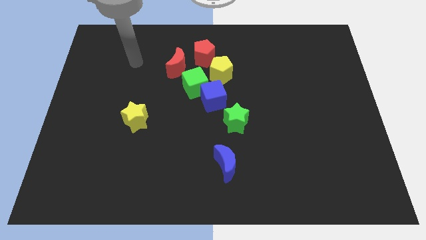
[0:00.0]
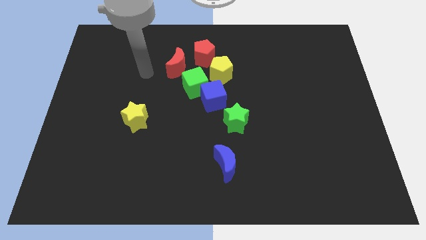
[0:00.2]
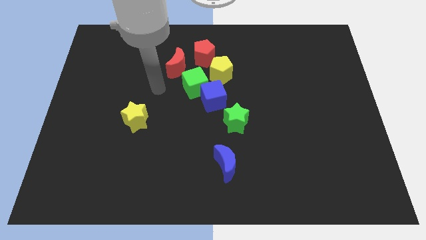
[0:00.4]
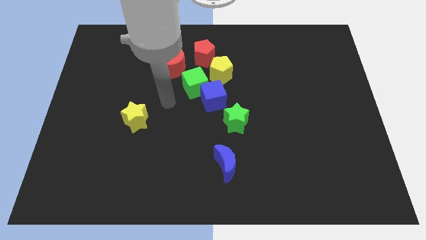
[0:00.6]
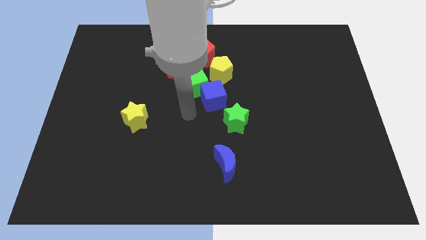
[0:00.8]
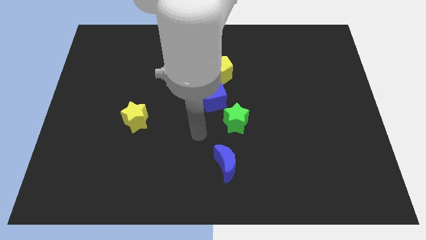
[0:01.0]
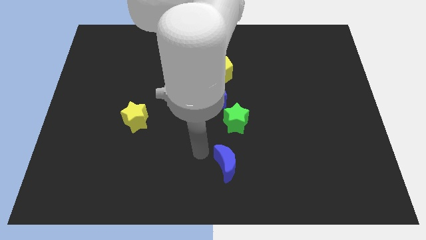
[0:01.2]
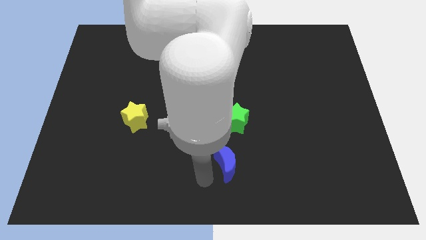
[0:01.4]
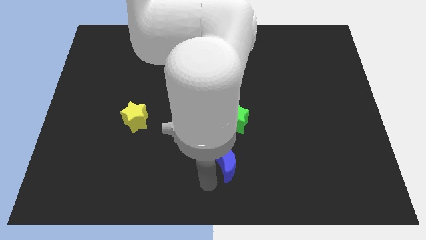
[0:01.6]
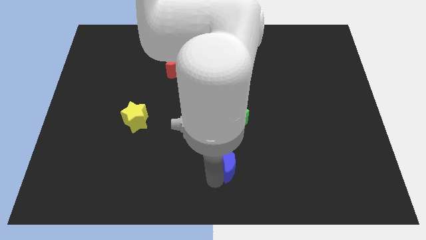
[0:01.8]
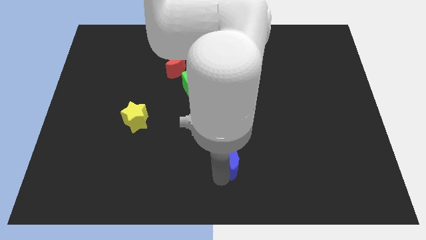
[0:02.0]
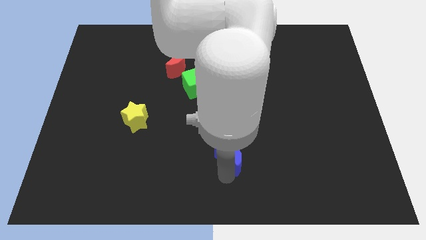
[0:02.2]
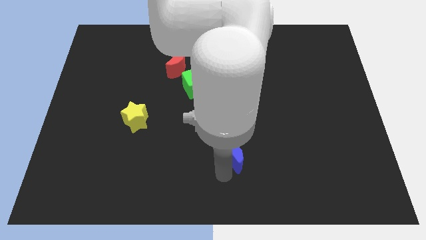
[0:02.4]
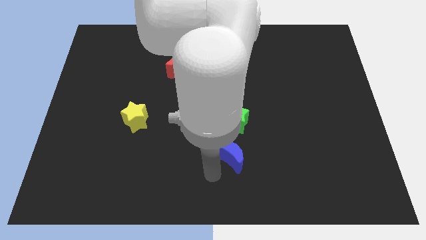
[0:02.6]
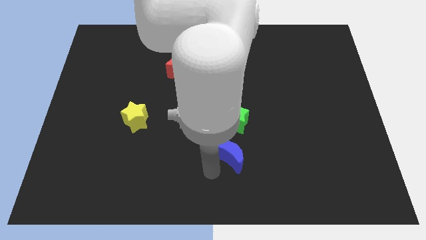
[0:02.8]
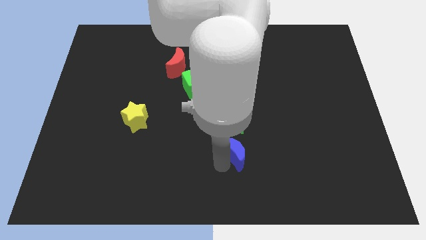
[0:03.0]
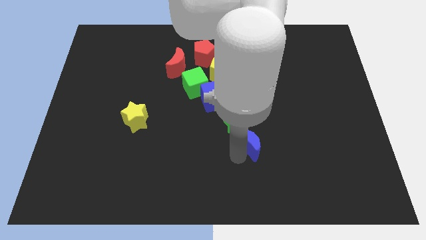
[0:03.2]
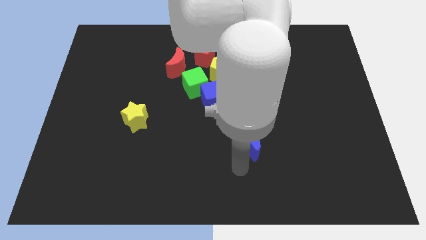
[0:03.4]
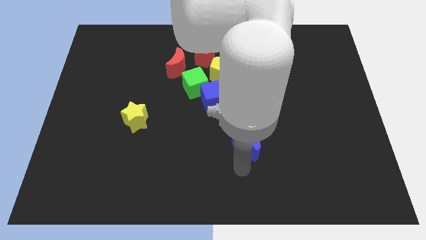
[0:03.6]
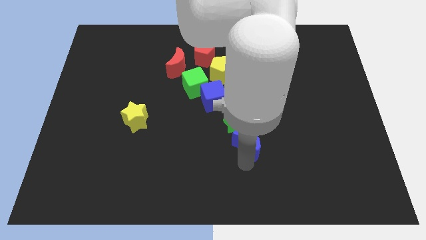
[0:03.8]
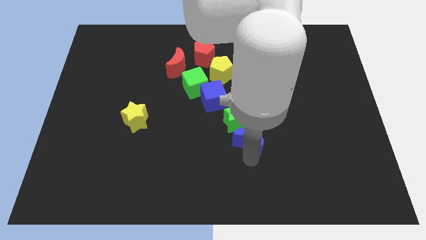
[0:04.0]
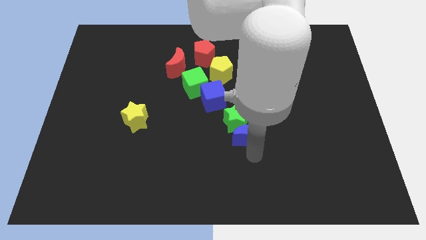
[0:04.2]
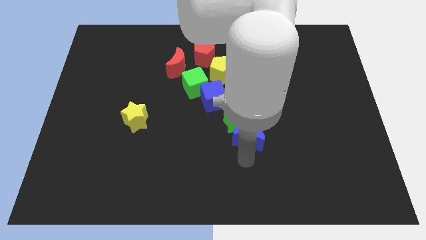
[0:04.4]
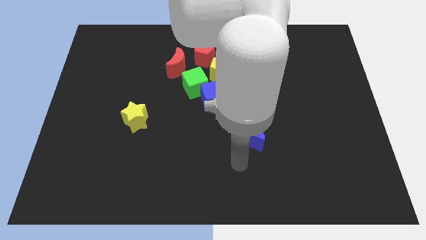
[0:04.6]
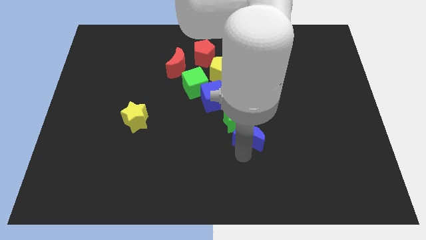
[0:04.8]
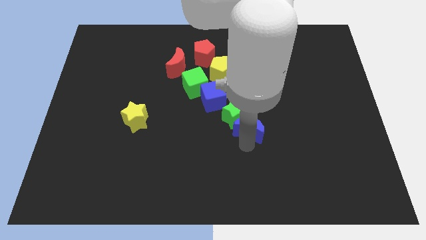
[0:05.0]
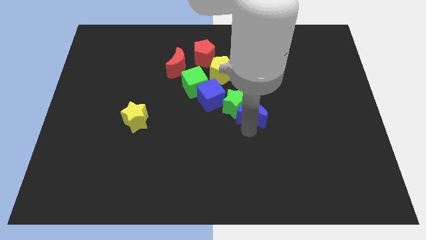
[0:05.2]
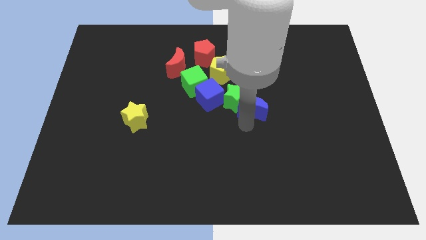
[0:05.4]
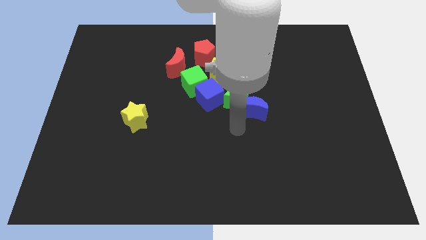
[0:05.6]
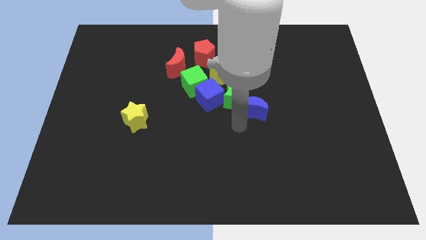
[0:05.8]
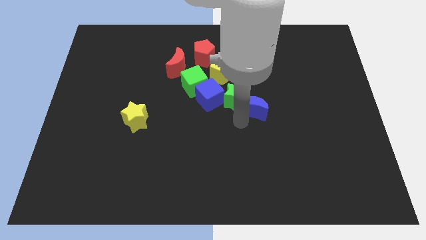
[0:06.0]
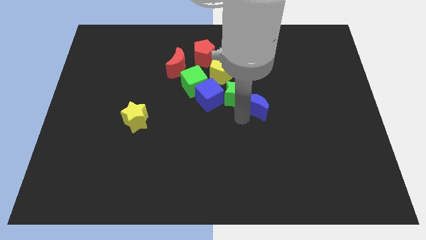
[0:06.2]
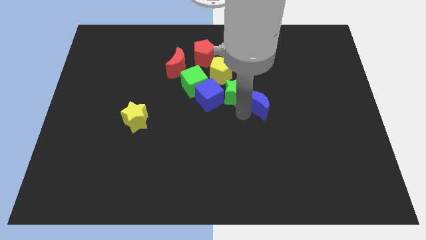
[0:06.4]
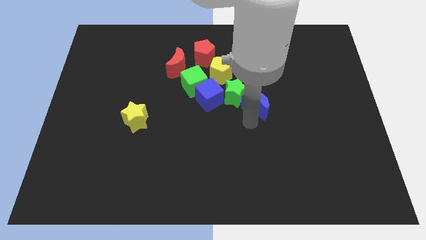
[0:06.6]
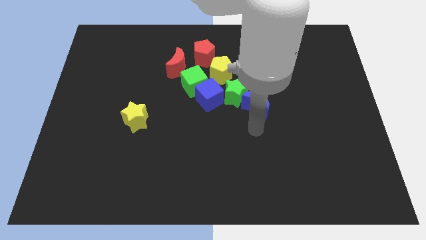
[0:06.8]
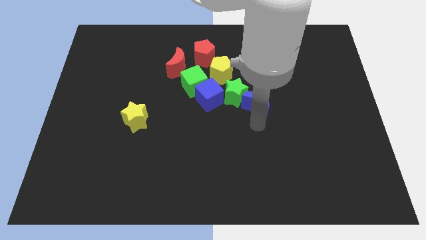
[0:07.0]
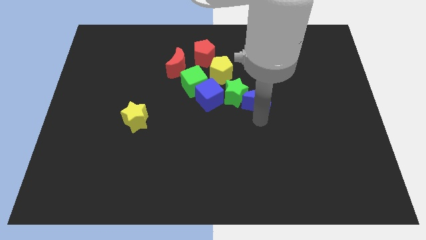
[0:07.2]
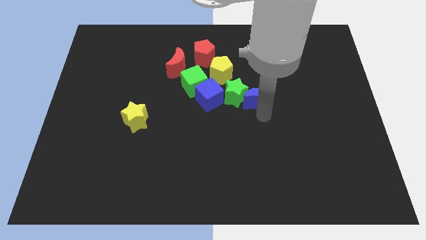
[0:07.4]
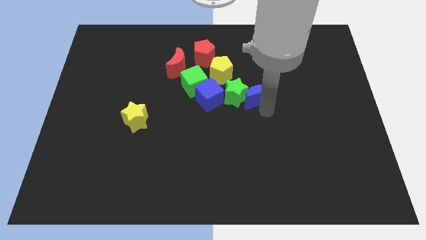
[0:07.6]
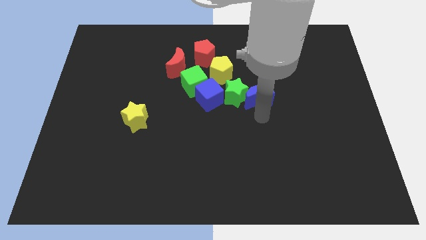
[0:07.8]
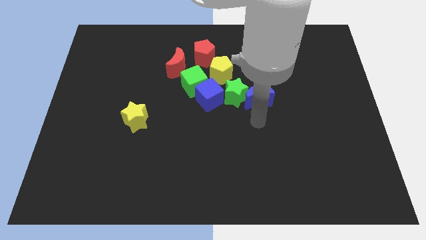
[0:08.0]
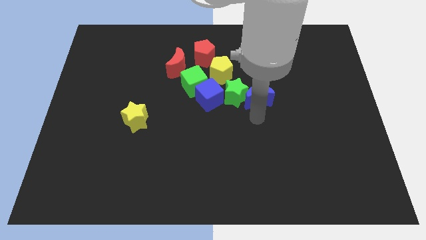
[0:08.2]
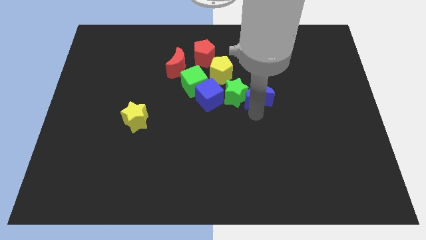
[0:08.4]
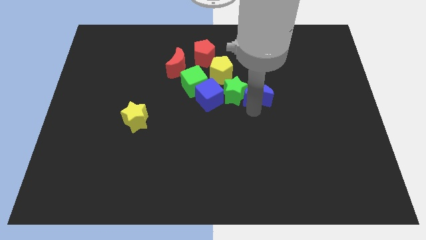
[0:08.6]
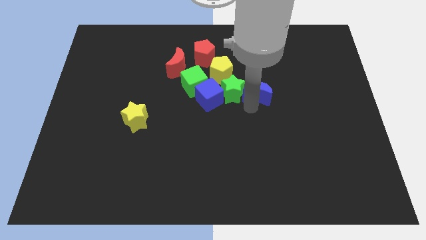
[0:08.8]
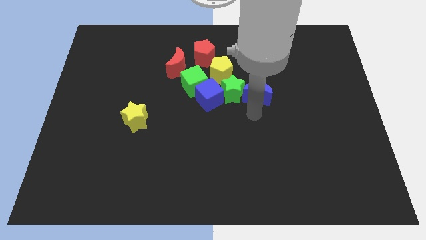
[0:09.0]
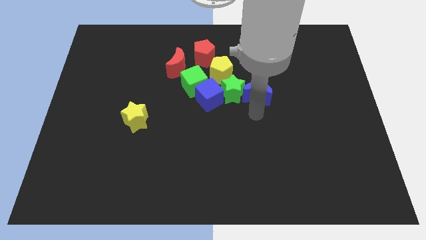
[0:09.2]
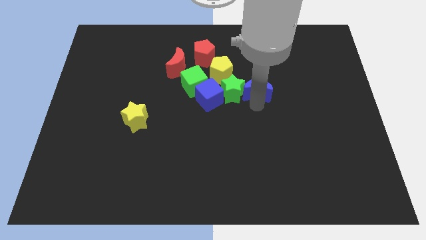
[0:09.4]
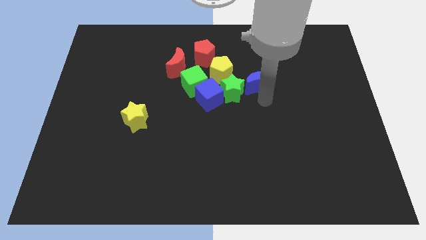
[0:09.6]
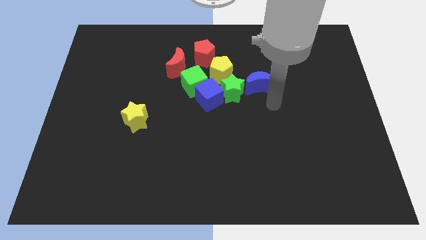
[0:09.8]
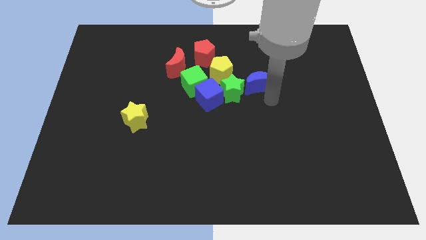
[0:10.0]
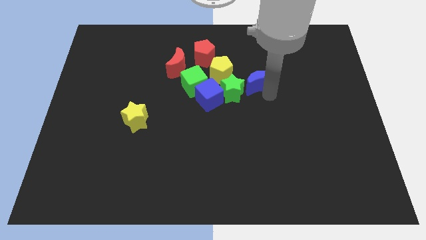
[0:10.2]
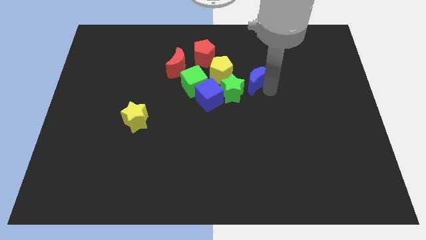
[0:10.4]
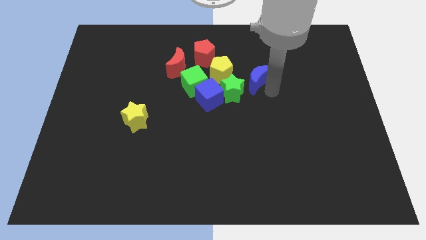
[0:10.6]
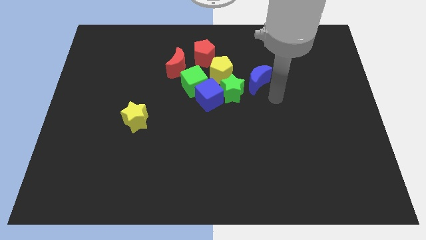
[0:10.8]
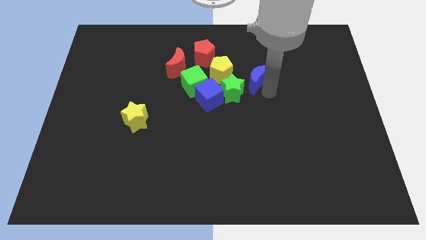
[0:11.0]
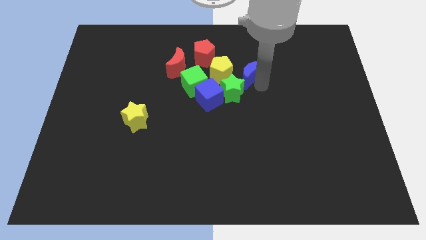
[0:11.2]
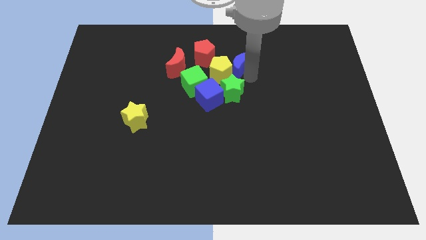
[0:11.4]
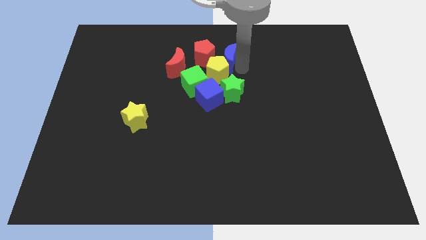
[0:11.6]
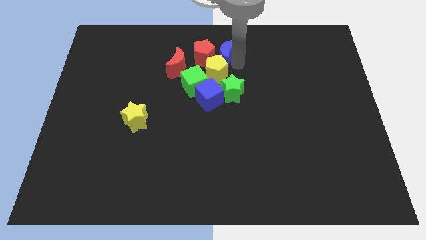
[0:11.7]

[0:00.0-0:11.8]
put the blue moon towards the red pentagon

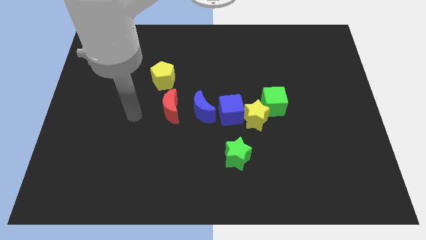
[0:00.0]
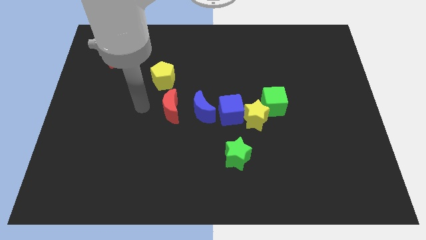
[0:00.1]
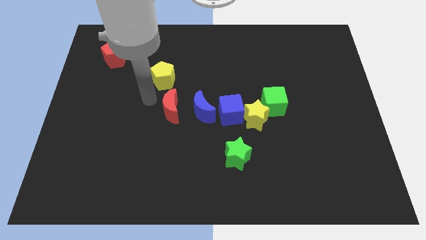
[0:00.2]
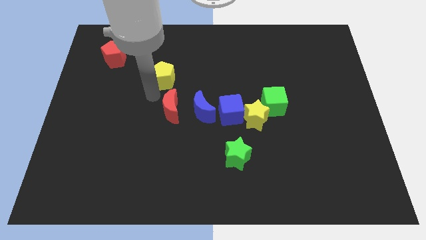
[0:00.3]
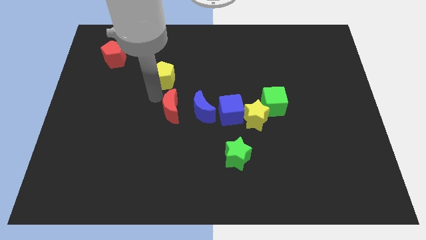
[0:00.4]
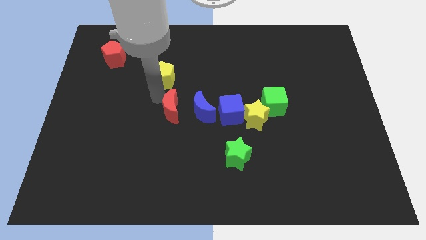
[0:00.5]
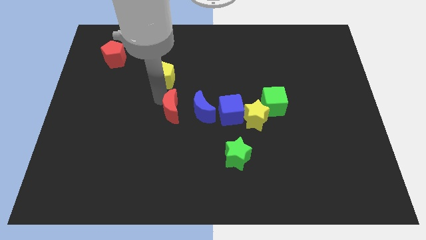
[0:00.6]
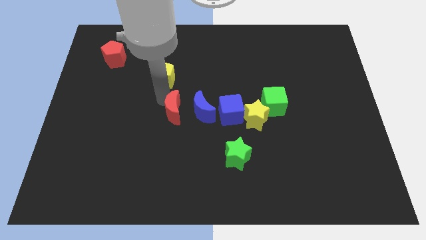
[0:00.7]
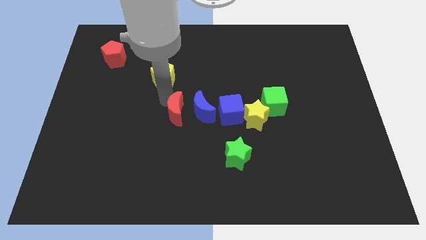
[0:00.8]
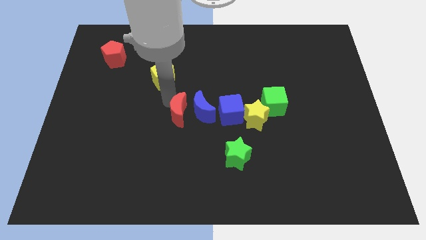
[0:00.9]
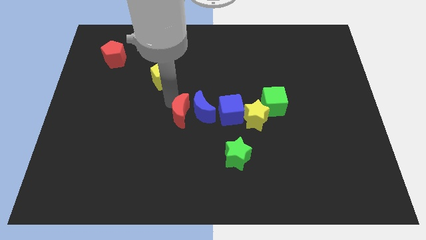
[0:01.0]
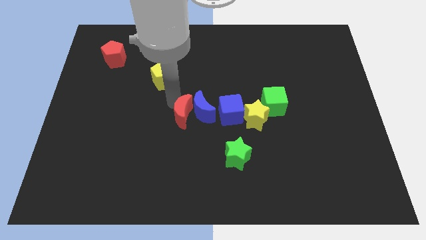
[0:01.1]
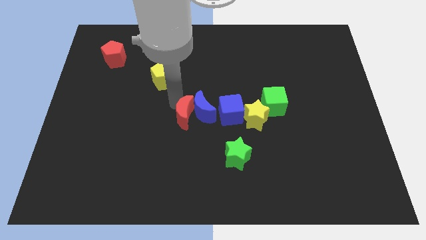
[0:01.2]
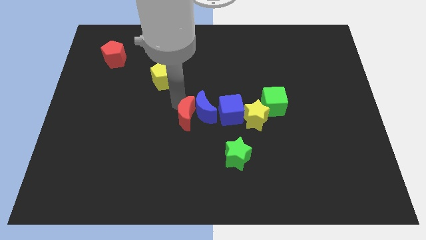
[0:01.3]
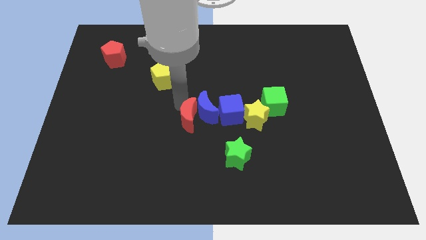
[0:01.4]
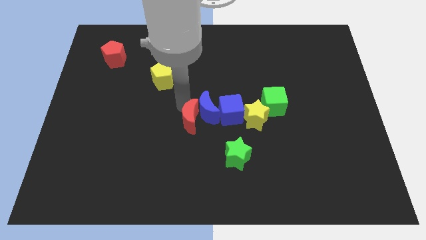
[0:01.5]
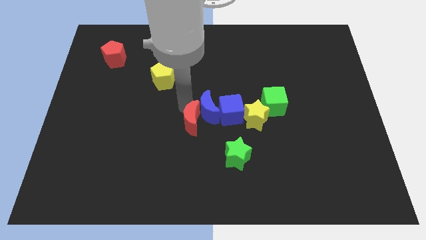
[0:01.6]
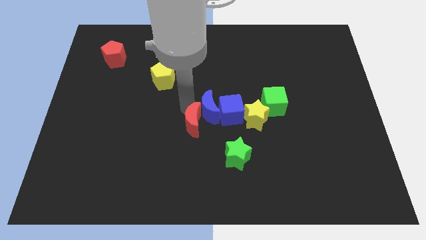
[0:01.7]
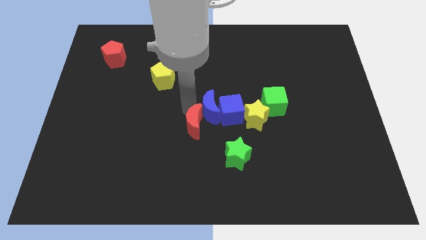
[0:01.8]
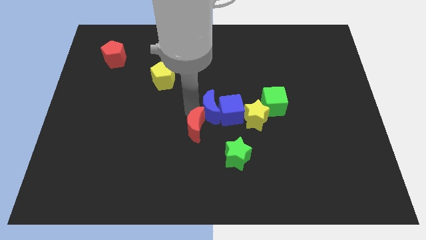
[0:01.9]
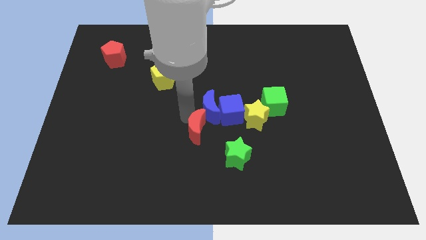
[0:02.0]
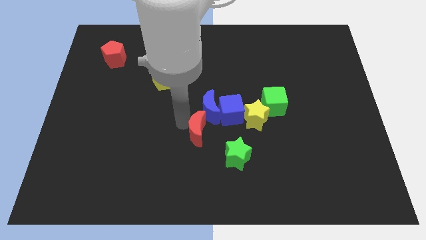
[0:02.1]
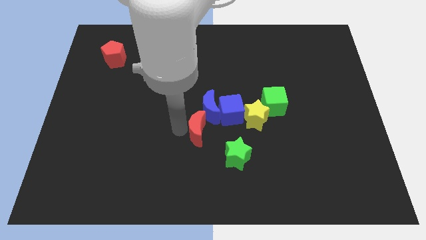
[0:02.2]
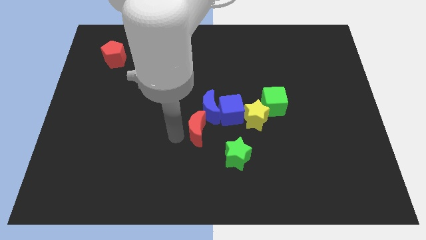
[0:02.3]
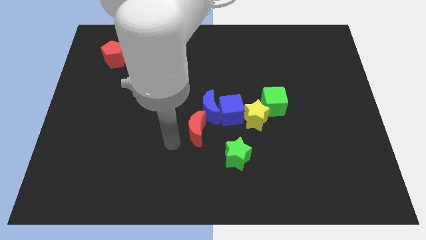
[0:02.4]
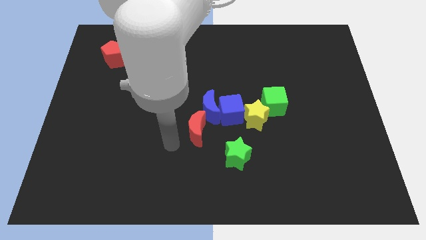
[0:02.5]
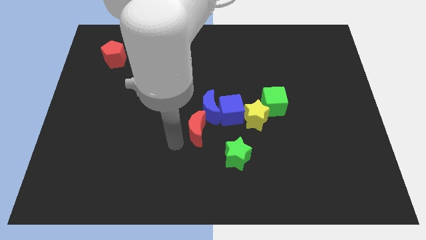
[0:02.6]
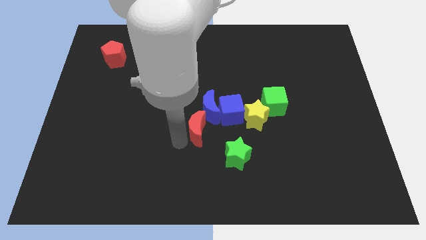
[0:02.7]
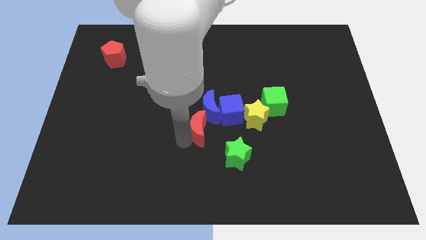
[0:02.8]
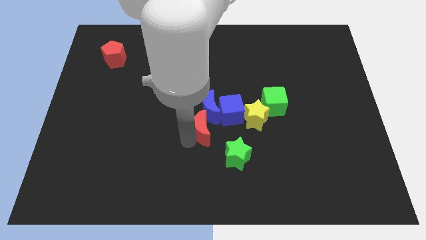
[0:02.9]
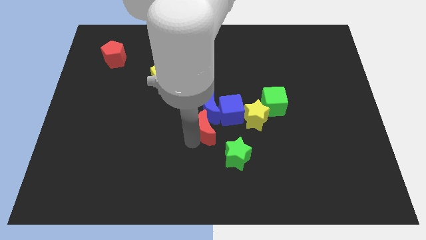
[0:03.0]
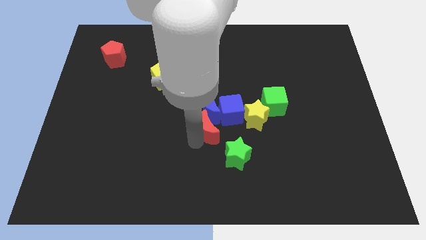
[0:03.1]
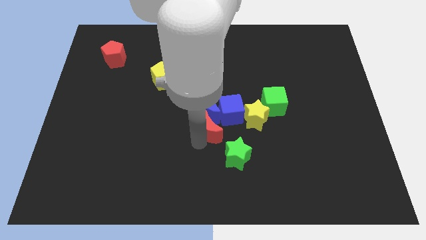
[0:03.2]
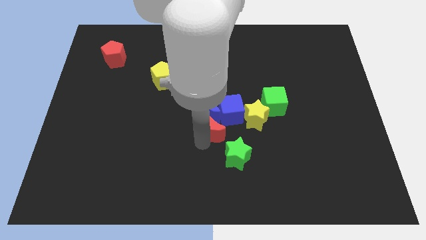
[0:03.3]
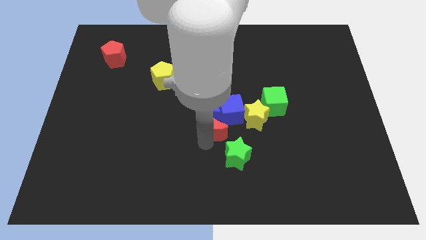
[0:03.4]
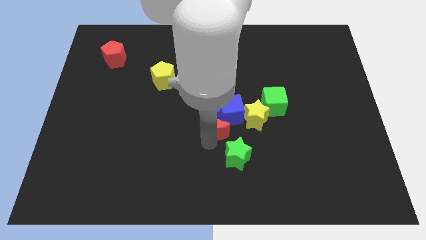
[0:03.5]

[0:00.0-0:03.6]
put the red moon close to the blue cube
